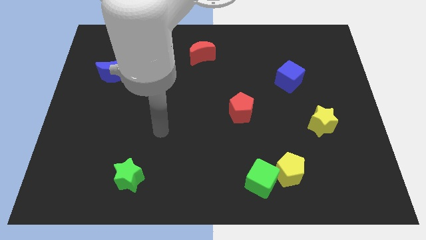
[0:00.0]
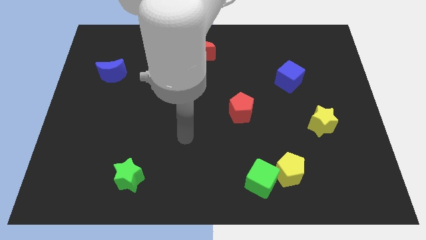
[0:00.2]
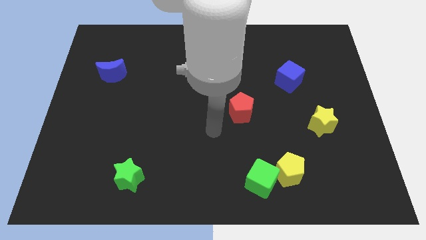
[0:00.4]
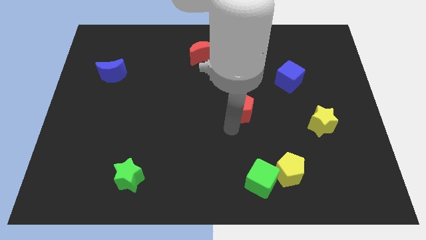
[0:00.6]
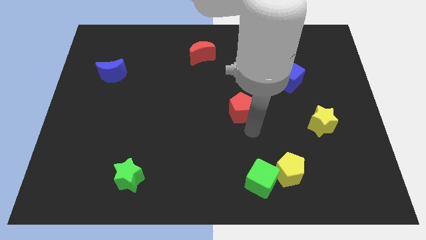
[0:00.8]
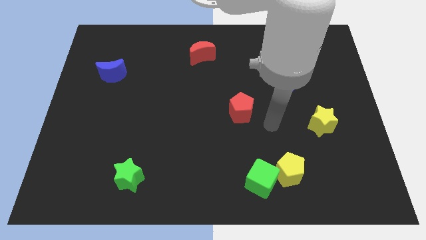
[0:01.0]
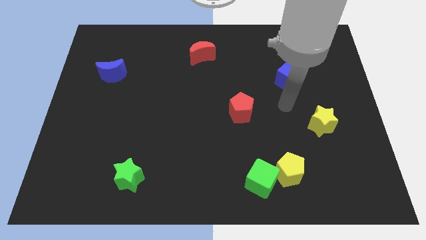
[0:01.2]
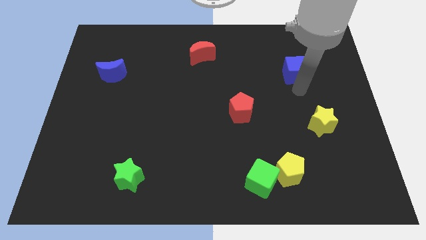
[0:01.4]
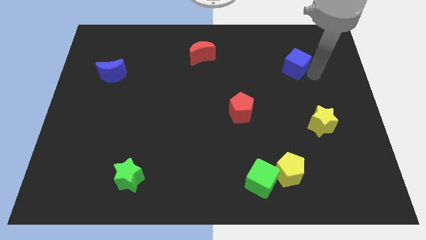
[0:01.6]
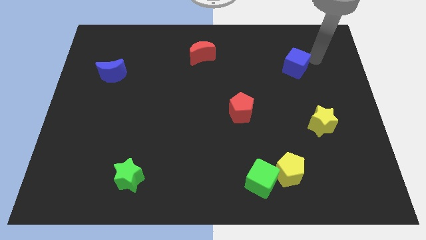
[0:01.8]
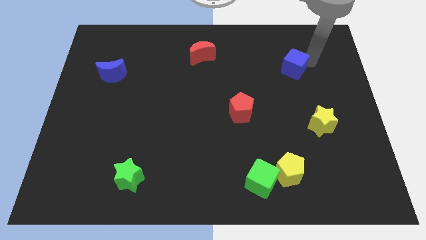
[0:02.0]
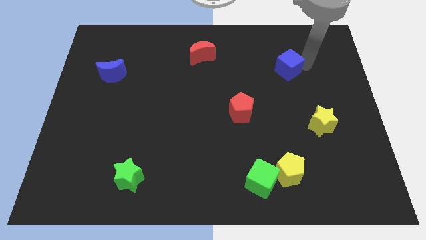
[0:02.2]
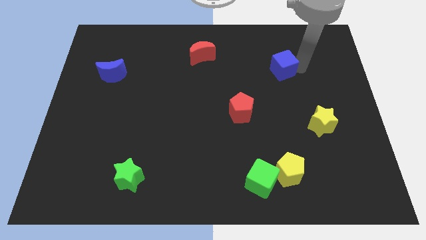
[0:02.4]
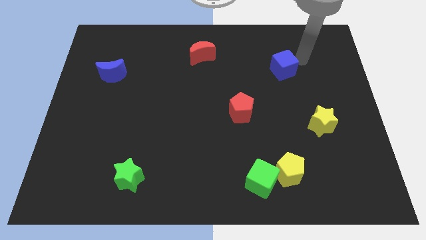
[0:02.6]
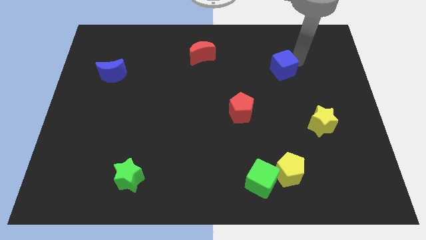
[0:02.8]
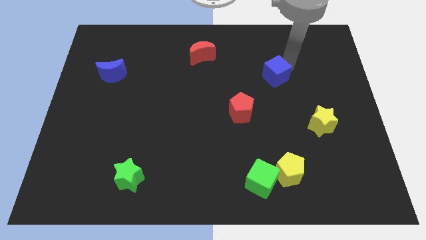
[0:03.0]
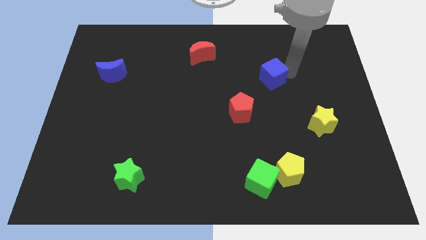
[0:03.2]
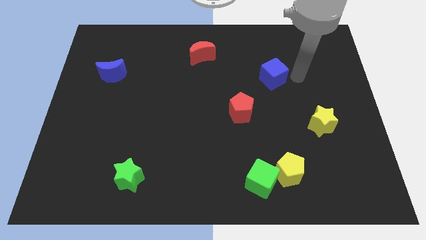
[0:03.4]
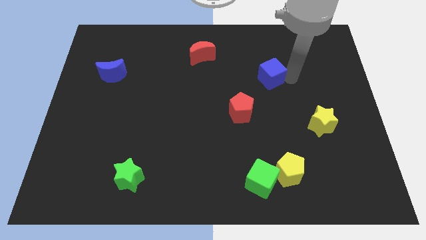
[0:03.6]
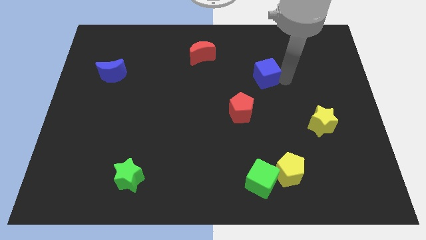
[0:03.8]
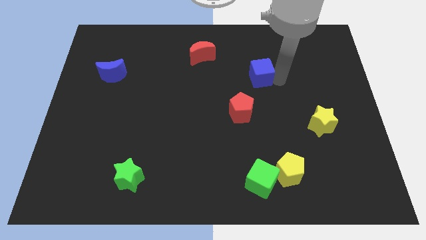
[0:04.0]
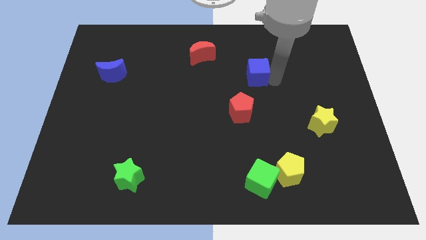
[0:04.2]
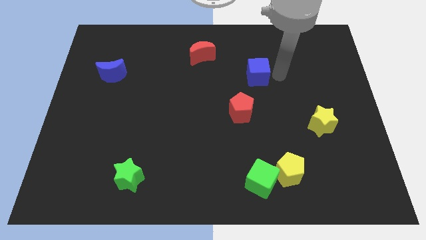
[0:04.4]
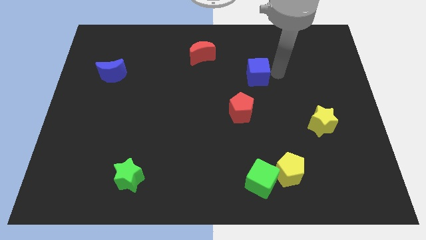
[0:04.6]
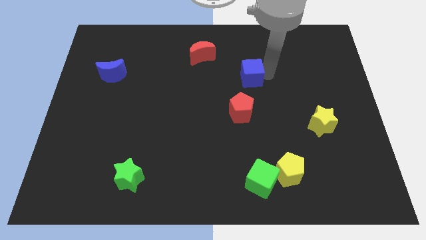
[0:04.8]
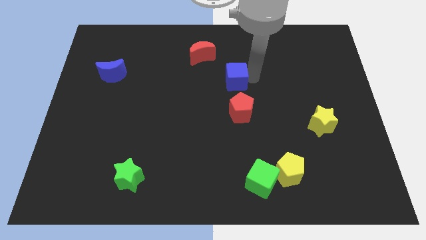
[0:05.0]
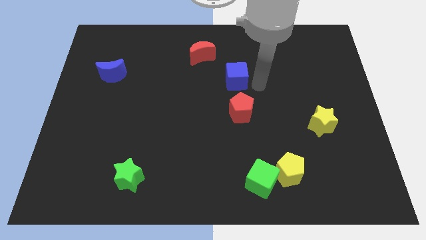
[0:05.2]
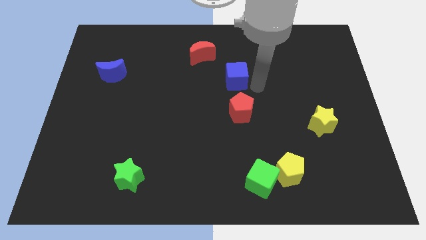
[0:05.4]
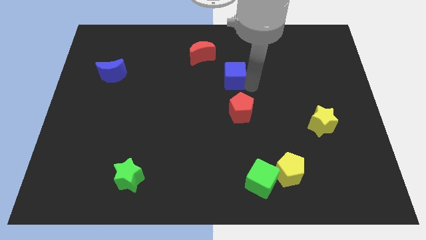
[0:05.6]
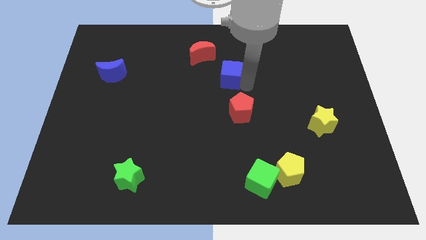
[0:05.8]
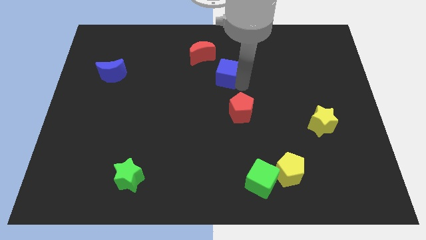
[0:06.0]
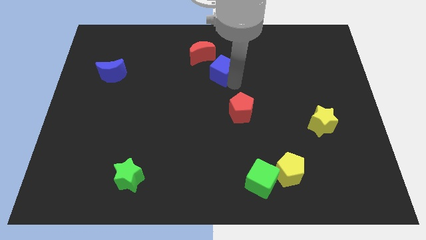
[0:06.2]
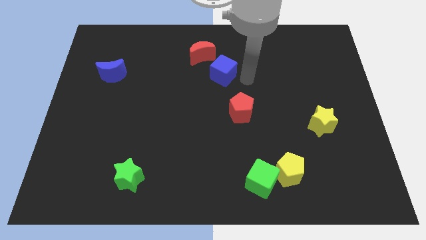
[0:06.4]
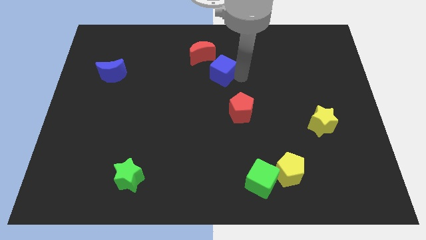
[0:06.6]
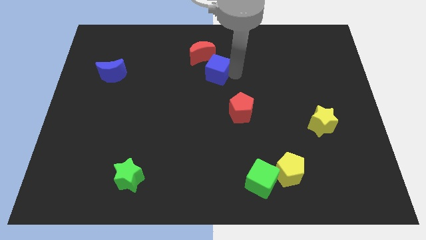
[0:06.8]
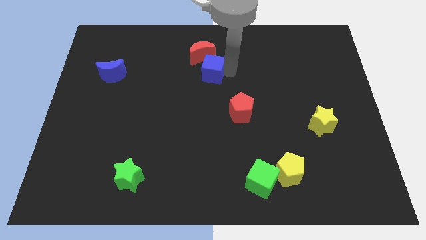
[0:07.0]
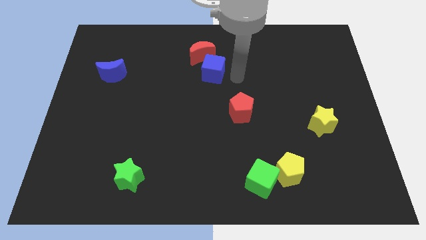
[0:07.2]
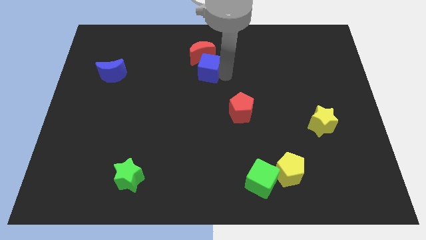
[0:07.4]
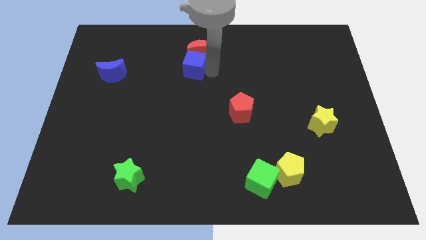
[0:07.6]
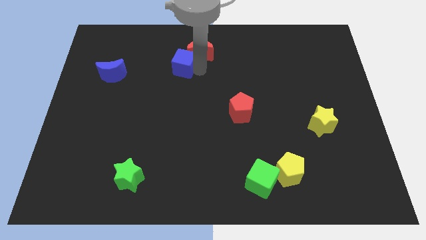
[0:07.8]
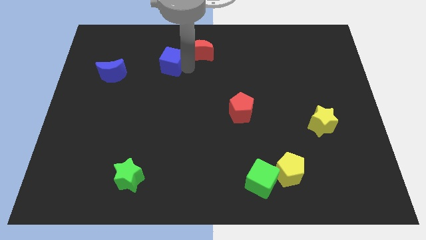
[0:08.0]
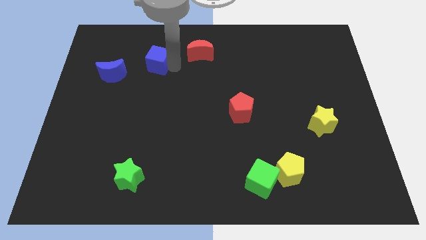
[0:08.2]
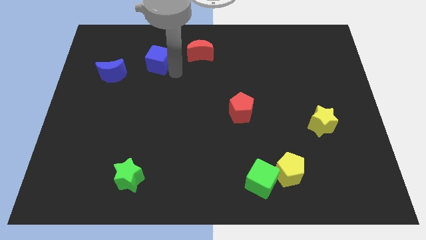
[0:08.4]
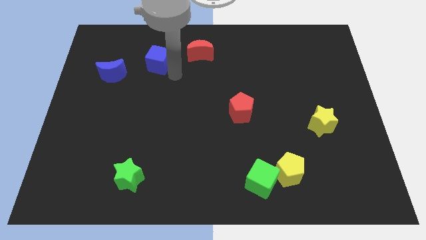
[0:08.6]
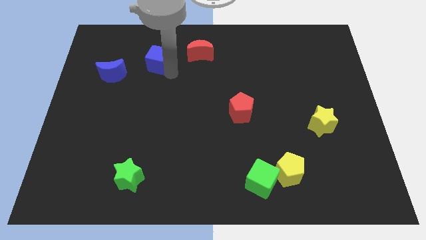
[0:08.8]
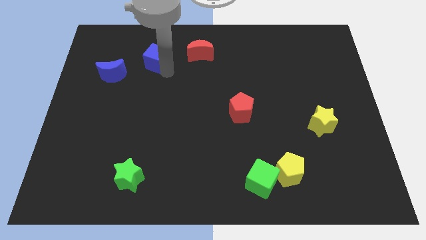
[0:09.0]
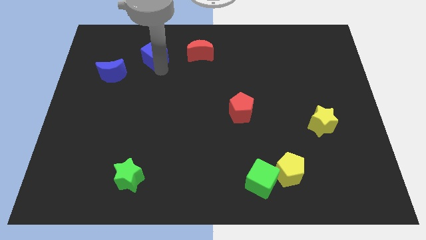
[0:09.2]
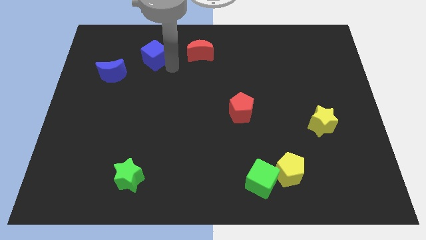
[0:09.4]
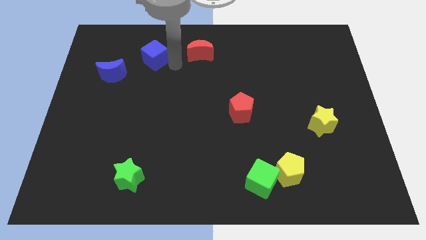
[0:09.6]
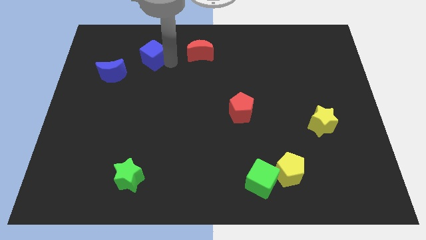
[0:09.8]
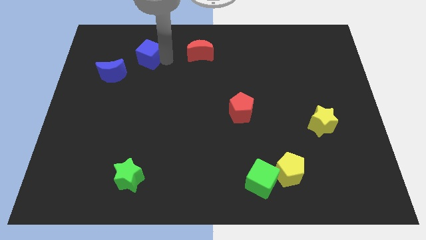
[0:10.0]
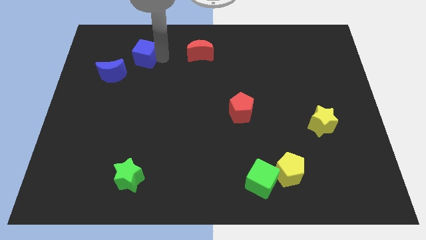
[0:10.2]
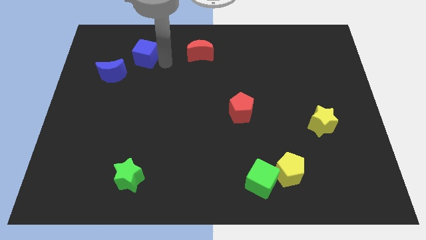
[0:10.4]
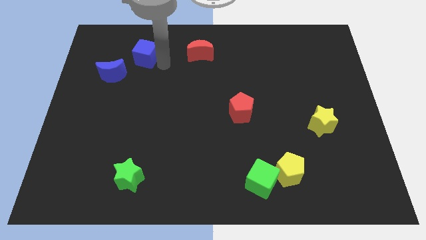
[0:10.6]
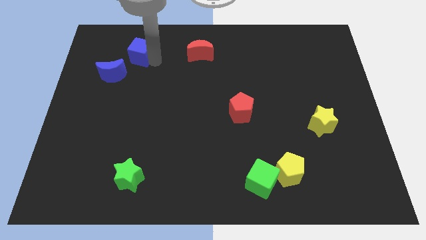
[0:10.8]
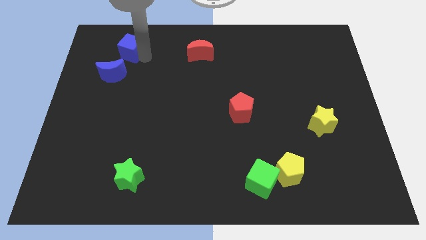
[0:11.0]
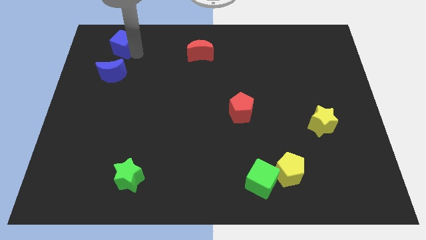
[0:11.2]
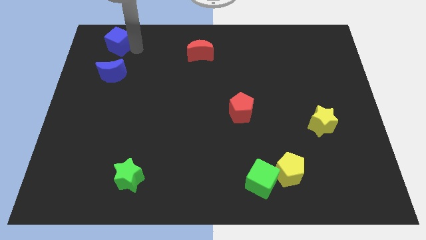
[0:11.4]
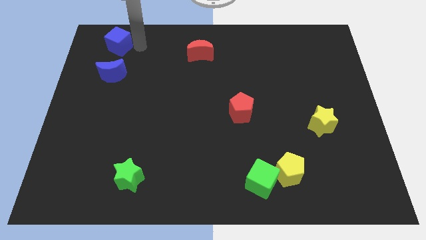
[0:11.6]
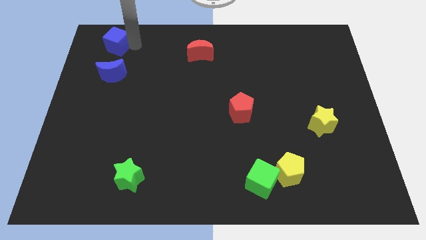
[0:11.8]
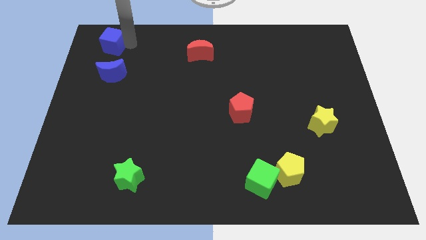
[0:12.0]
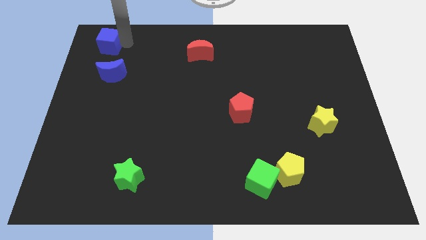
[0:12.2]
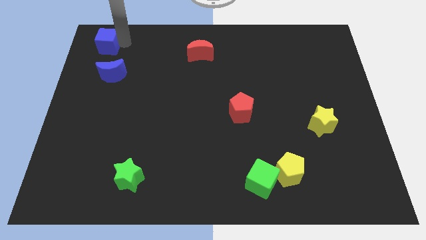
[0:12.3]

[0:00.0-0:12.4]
slide the blue cube to the top left of the board

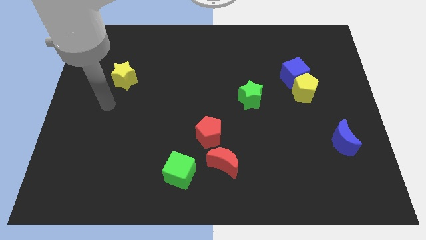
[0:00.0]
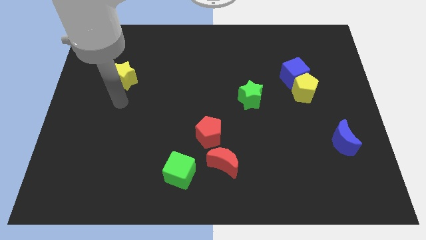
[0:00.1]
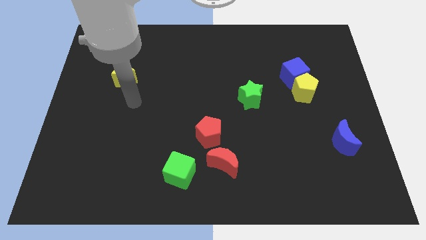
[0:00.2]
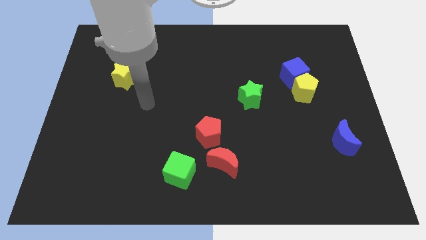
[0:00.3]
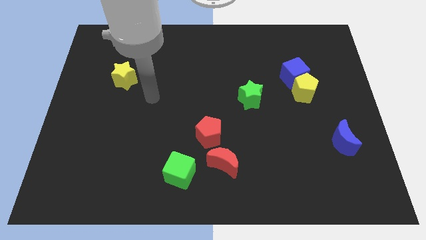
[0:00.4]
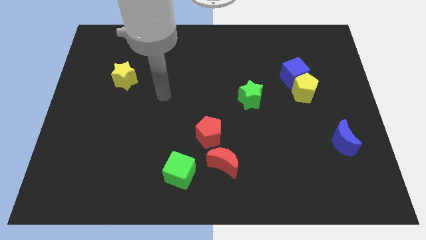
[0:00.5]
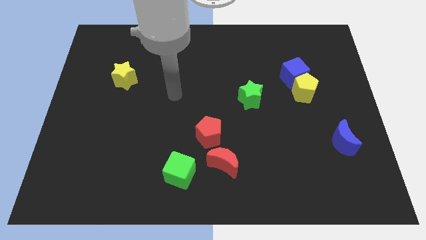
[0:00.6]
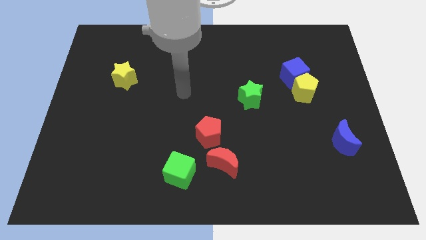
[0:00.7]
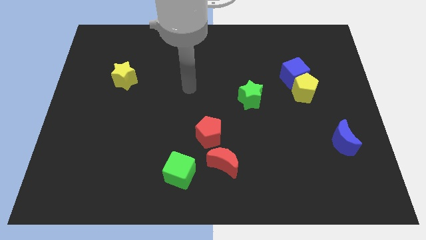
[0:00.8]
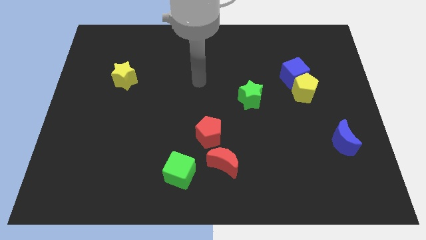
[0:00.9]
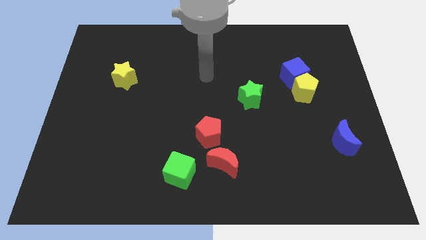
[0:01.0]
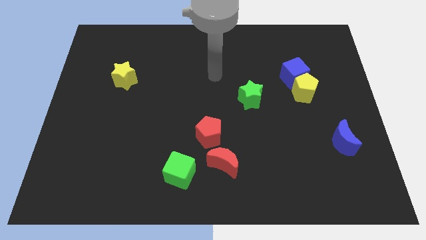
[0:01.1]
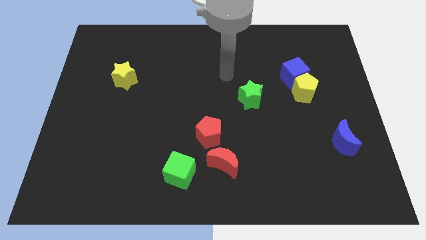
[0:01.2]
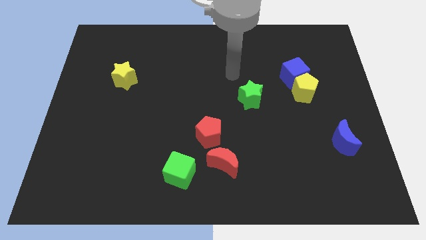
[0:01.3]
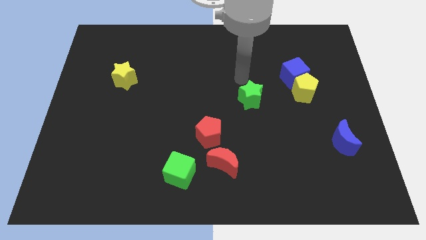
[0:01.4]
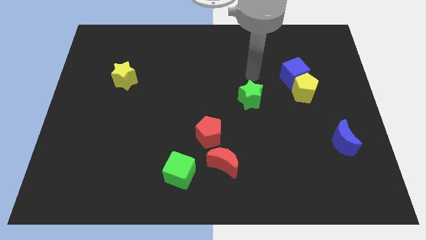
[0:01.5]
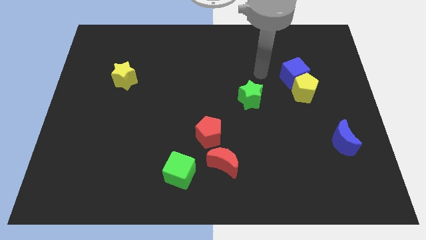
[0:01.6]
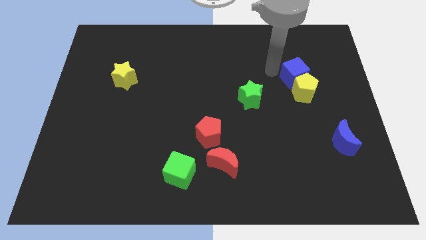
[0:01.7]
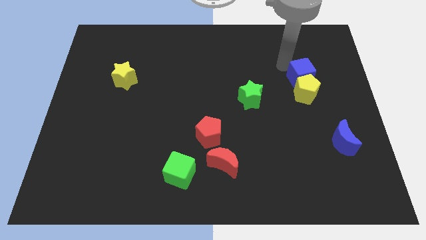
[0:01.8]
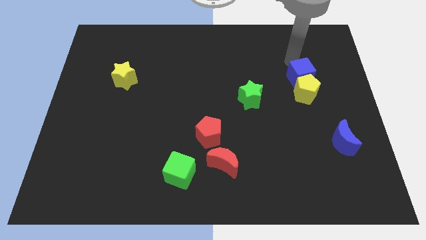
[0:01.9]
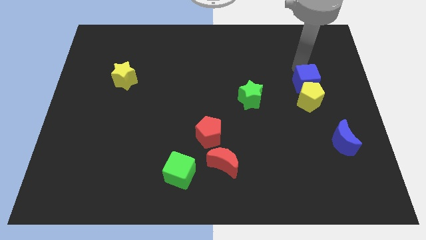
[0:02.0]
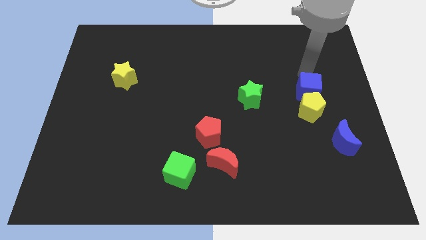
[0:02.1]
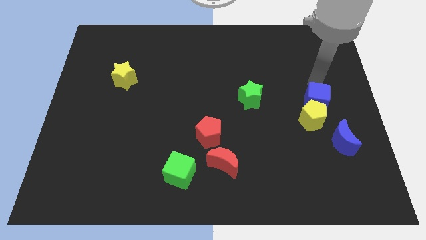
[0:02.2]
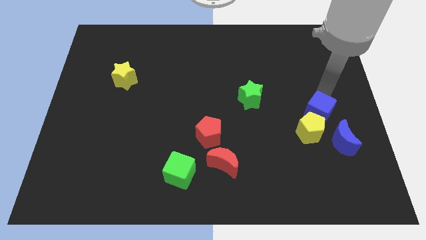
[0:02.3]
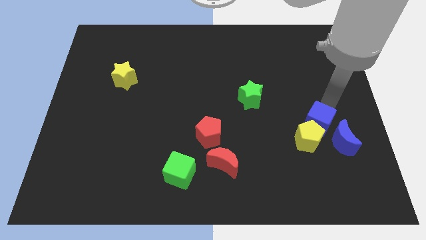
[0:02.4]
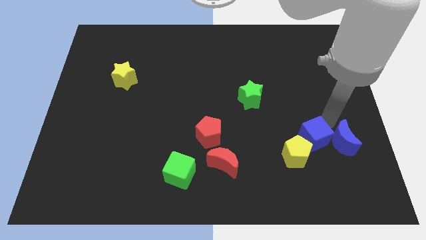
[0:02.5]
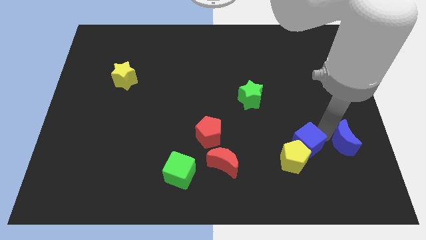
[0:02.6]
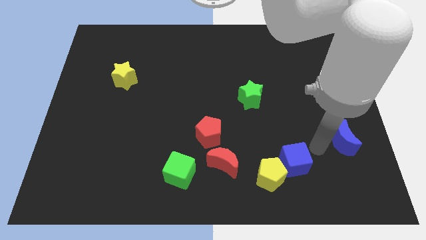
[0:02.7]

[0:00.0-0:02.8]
push the yellow pentagon to the bottom side
